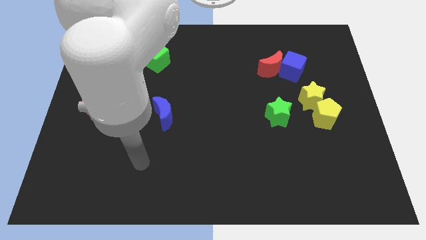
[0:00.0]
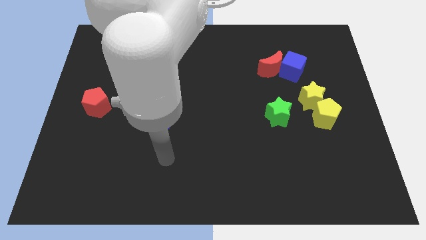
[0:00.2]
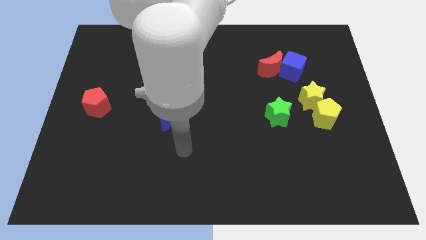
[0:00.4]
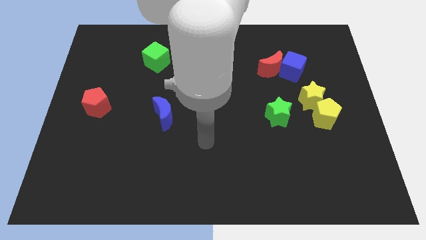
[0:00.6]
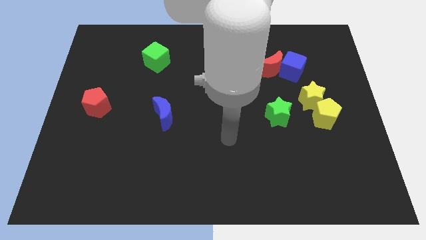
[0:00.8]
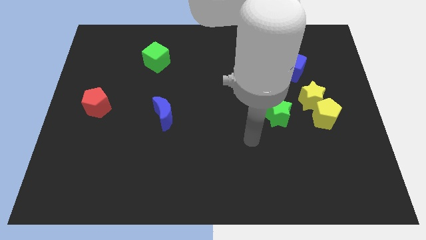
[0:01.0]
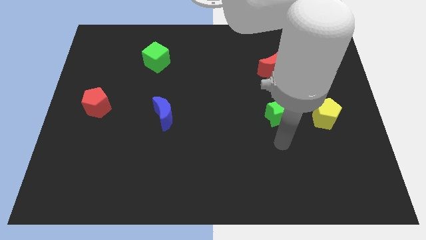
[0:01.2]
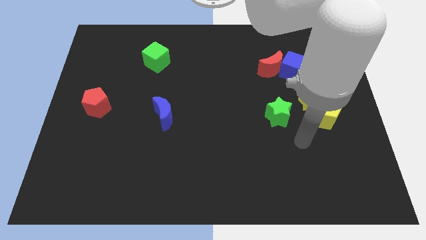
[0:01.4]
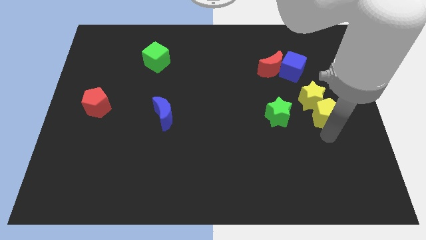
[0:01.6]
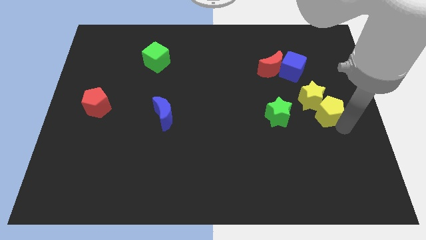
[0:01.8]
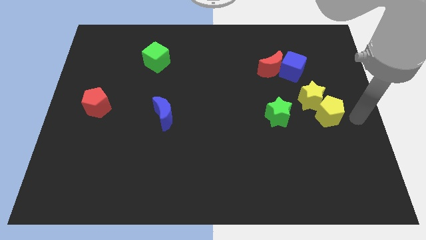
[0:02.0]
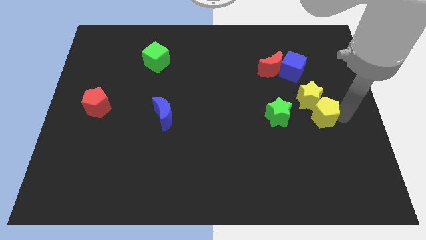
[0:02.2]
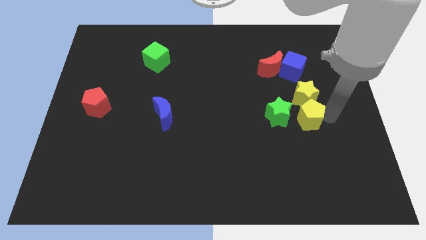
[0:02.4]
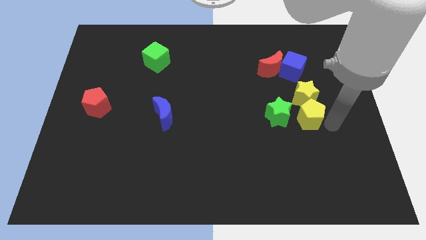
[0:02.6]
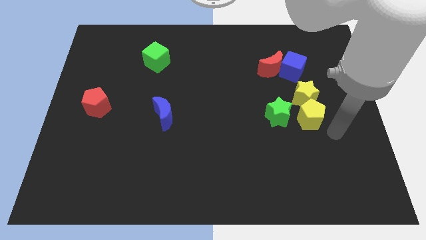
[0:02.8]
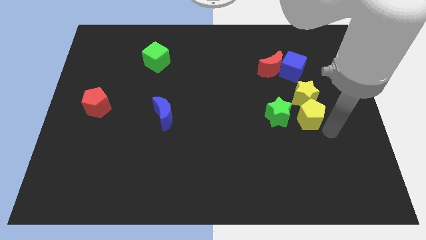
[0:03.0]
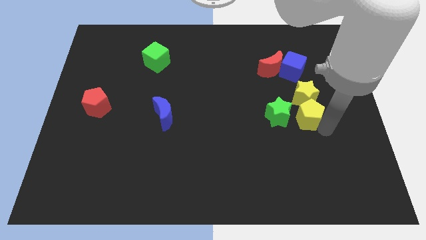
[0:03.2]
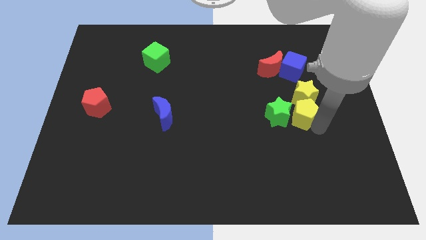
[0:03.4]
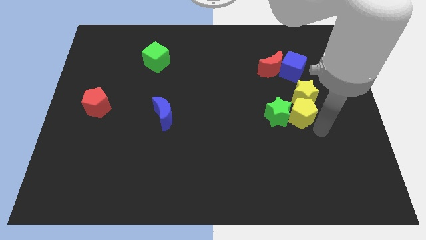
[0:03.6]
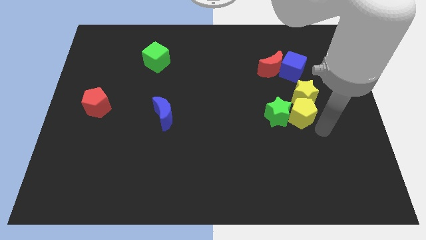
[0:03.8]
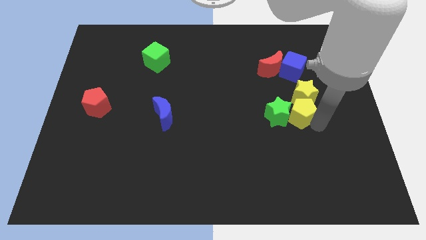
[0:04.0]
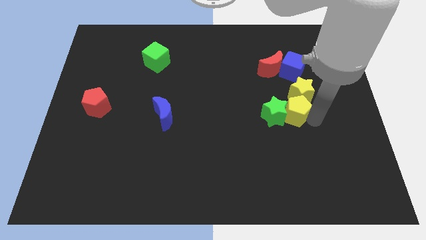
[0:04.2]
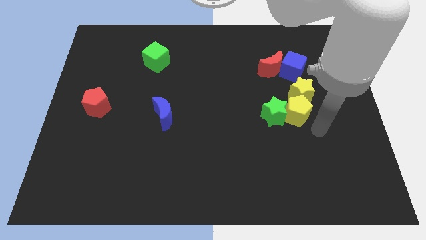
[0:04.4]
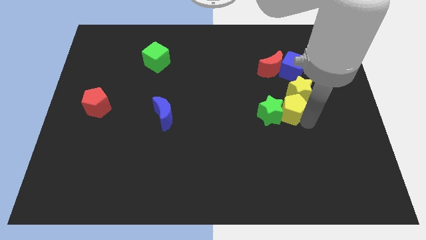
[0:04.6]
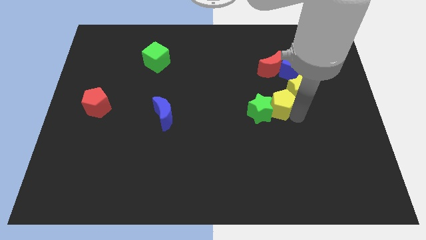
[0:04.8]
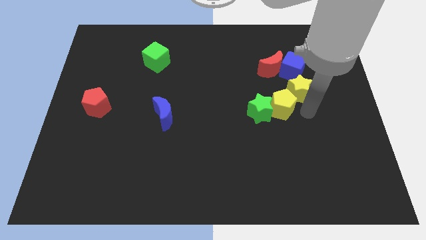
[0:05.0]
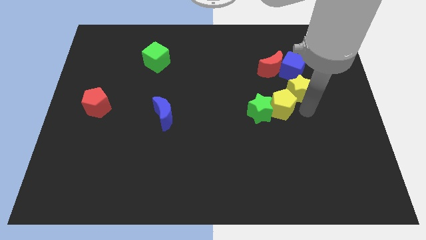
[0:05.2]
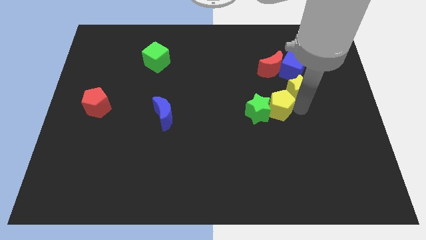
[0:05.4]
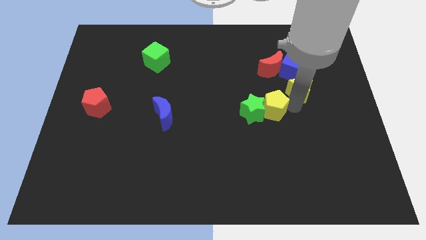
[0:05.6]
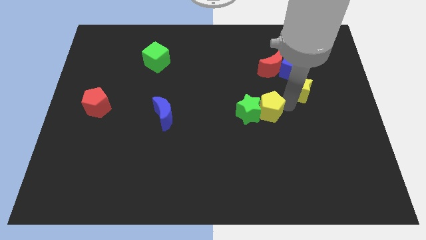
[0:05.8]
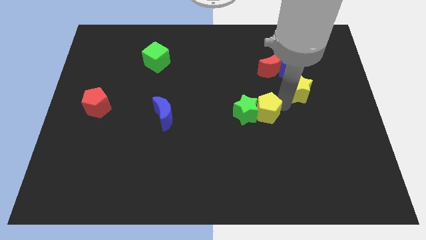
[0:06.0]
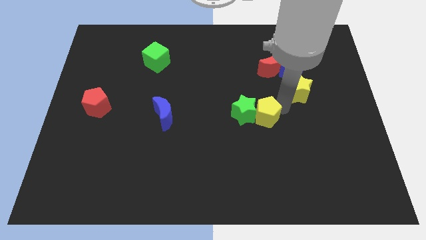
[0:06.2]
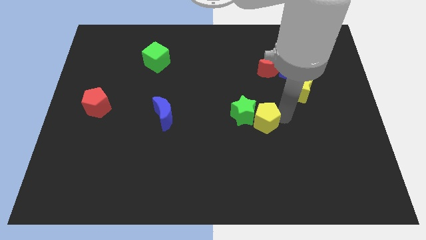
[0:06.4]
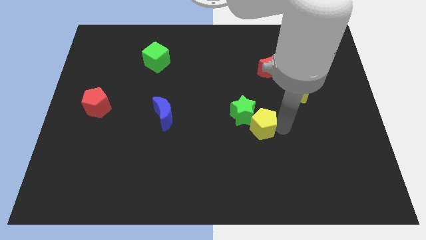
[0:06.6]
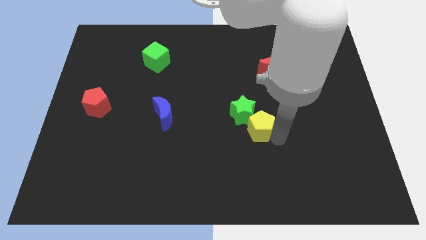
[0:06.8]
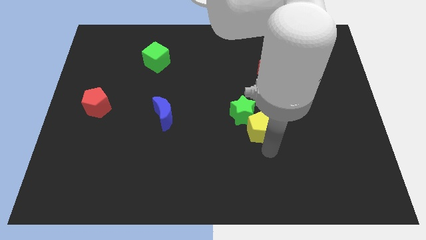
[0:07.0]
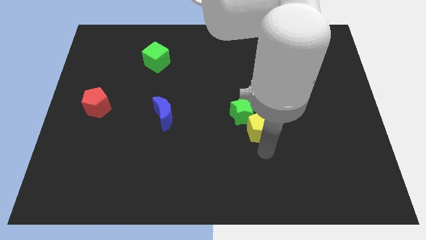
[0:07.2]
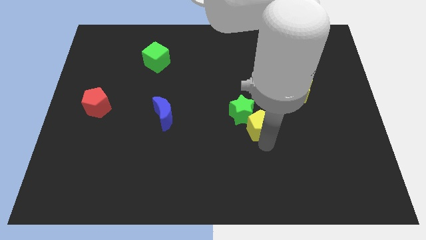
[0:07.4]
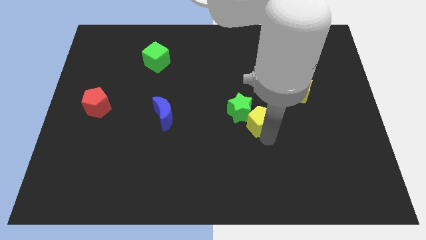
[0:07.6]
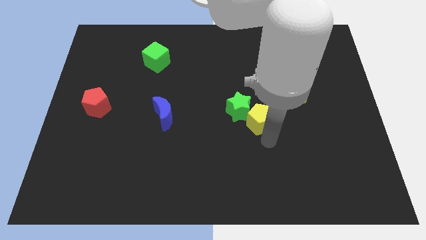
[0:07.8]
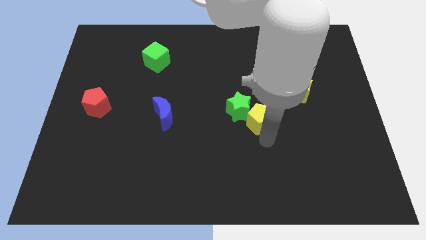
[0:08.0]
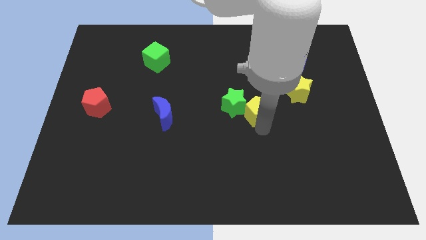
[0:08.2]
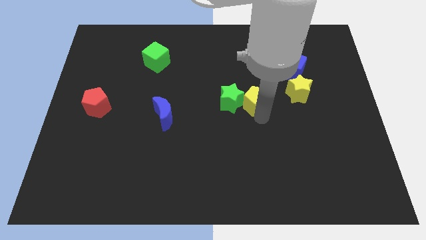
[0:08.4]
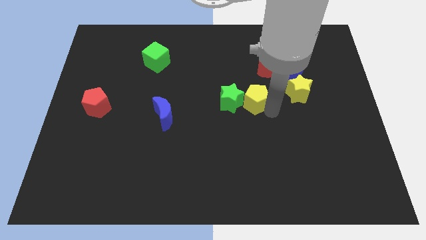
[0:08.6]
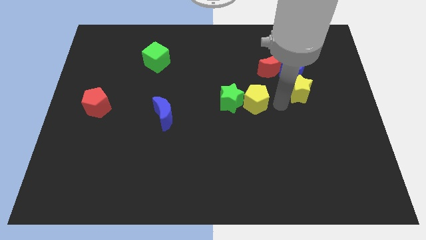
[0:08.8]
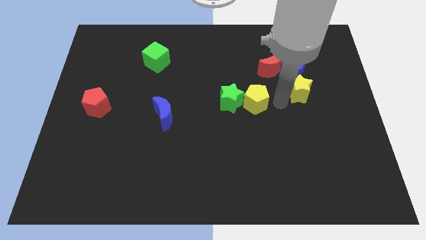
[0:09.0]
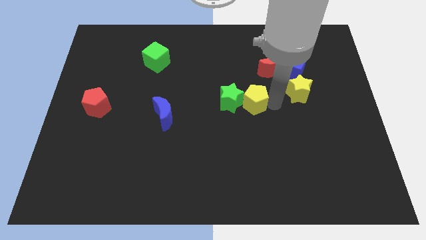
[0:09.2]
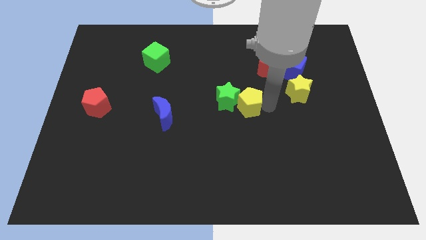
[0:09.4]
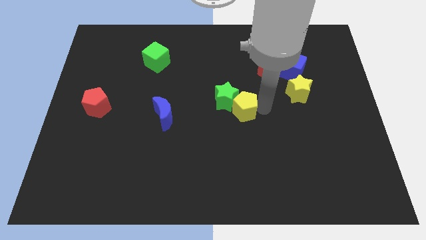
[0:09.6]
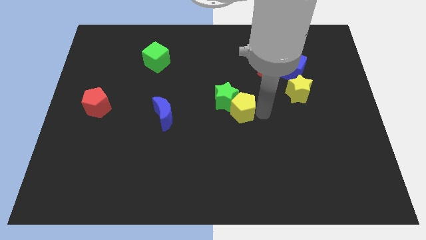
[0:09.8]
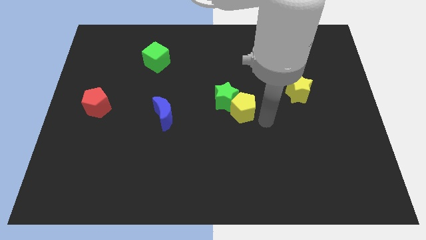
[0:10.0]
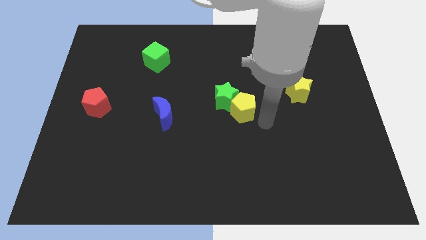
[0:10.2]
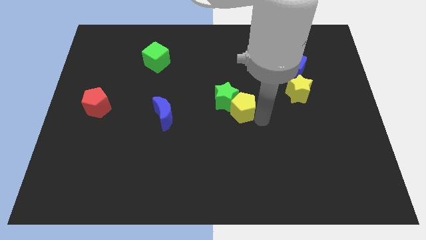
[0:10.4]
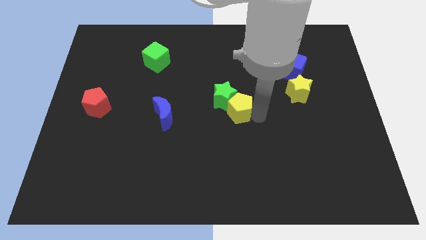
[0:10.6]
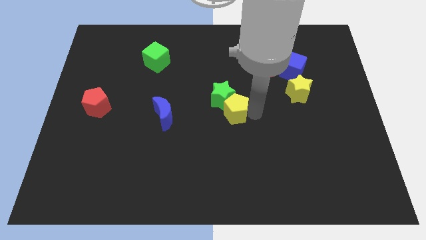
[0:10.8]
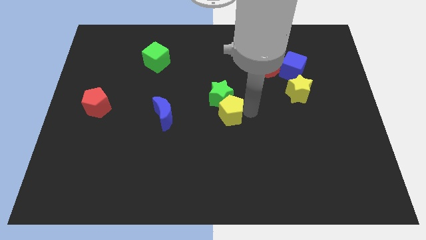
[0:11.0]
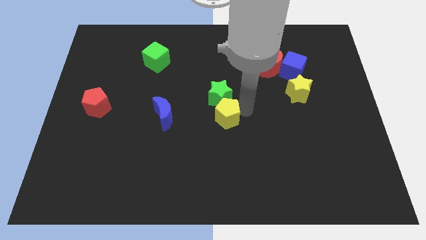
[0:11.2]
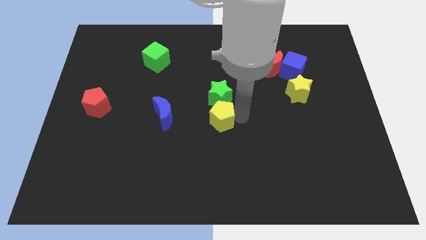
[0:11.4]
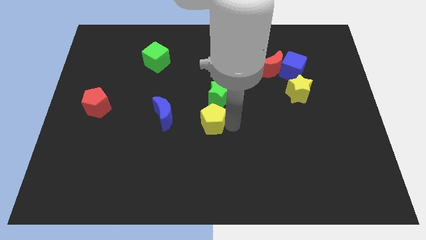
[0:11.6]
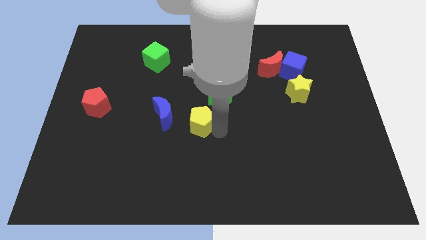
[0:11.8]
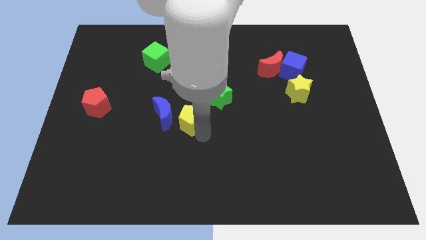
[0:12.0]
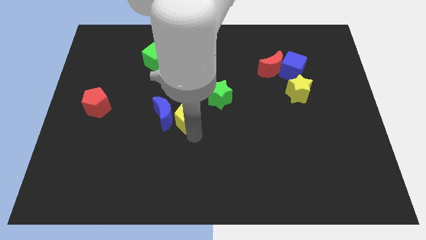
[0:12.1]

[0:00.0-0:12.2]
slide the yellow pentagon next to the blue moon

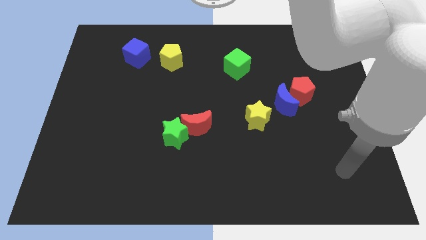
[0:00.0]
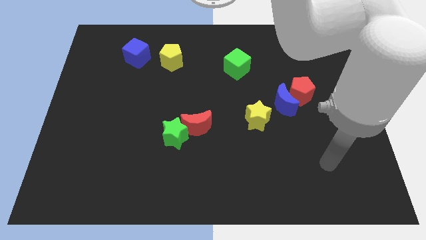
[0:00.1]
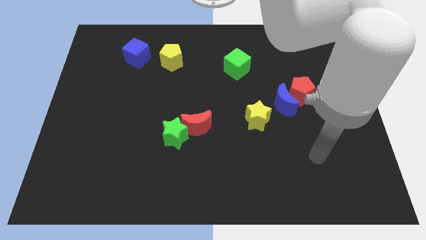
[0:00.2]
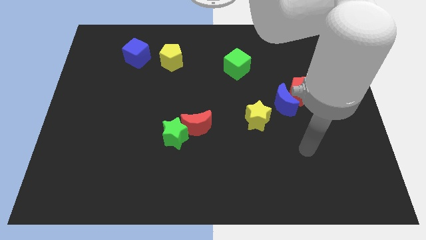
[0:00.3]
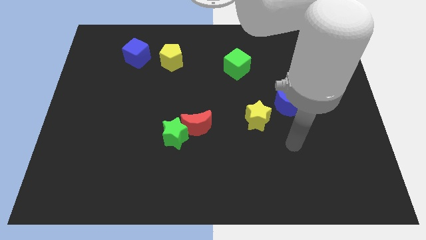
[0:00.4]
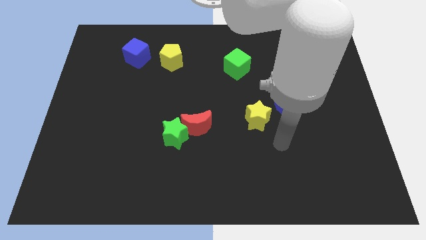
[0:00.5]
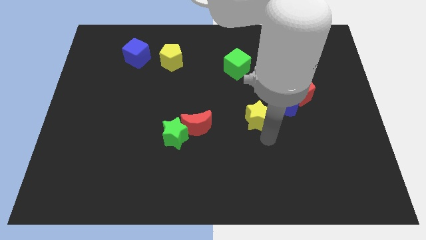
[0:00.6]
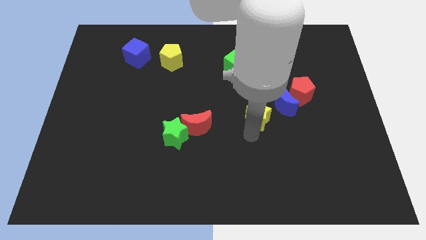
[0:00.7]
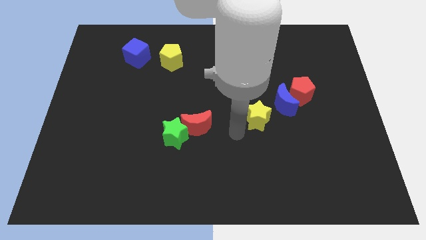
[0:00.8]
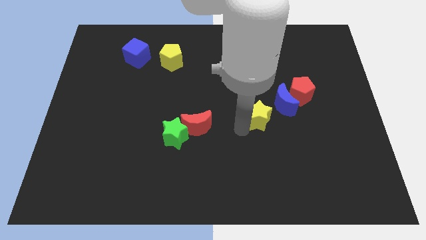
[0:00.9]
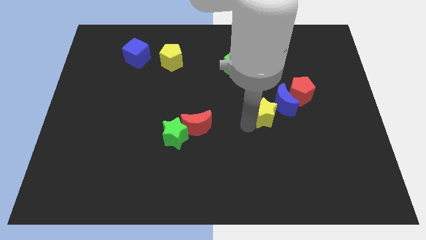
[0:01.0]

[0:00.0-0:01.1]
push the yellow star towards the blue moon

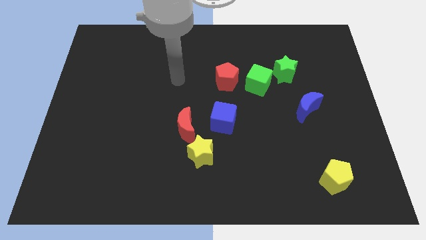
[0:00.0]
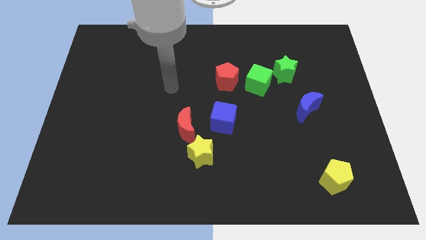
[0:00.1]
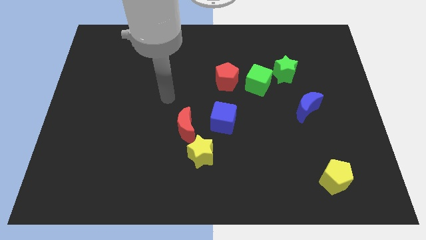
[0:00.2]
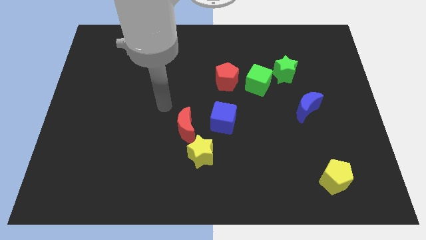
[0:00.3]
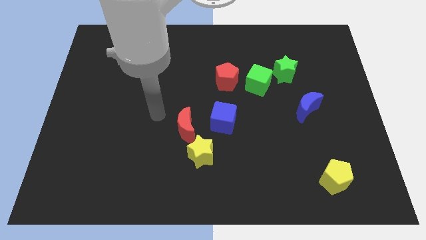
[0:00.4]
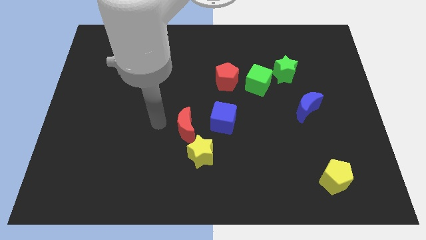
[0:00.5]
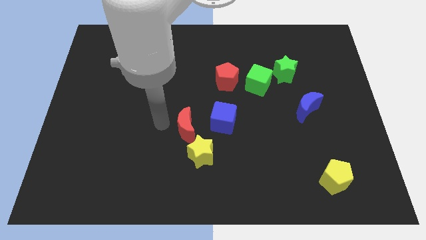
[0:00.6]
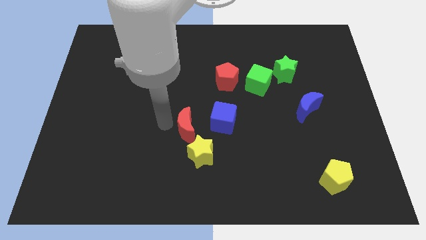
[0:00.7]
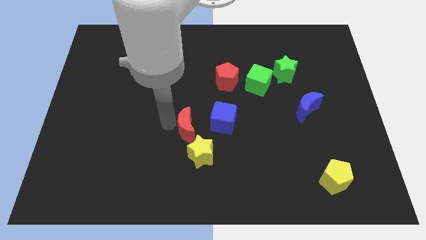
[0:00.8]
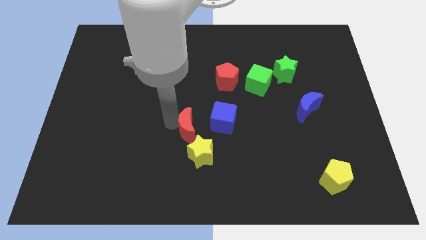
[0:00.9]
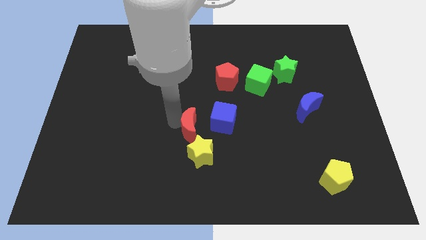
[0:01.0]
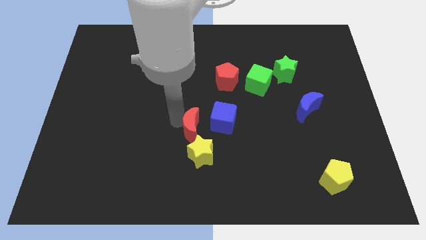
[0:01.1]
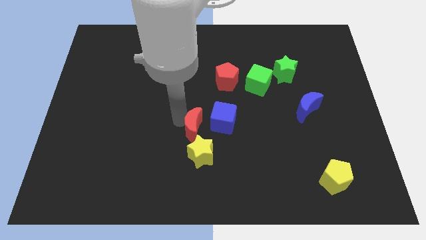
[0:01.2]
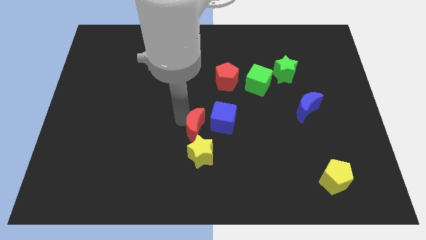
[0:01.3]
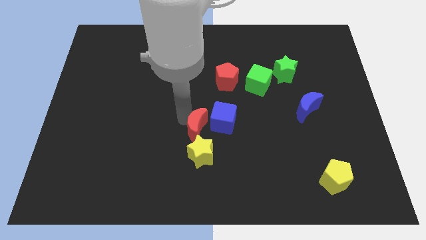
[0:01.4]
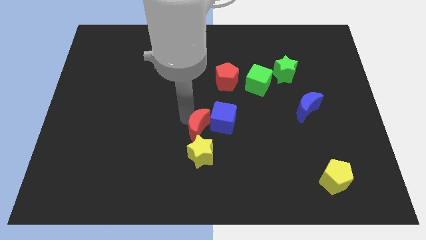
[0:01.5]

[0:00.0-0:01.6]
put the red moon next to the blue cube
